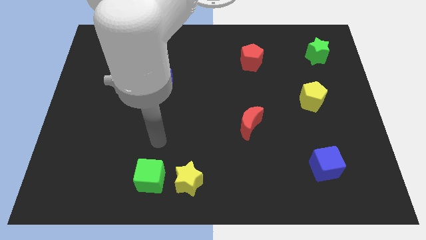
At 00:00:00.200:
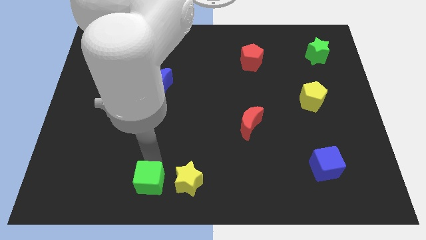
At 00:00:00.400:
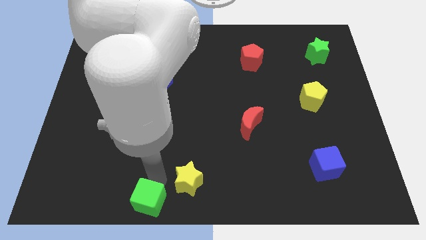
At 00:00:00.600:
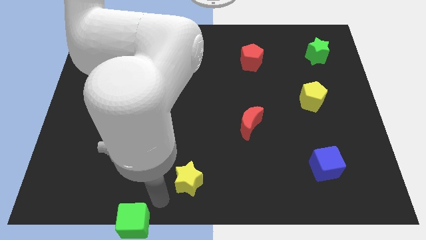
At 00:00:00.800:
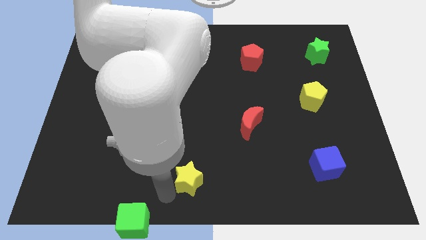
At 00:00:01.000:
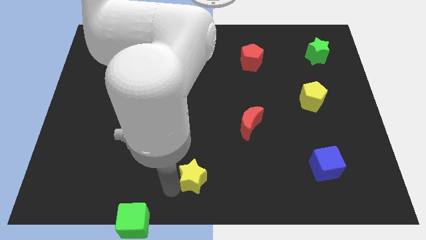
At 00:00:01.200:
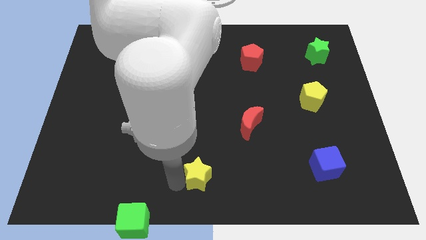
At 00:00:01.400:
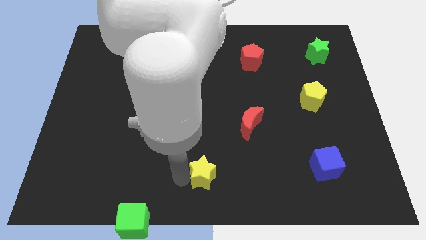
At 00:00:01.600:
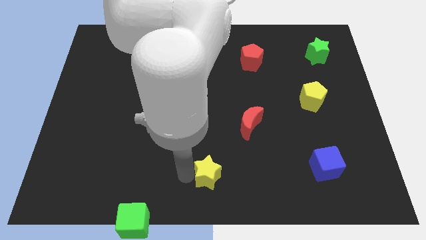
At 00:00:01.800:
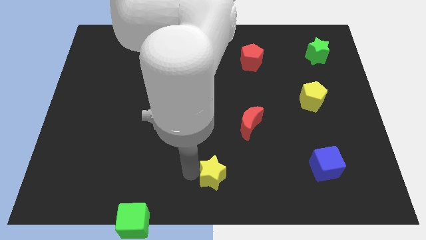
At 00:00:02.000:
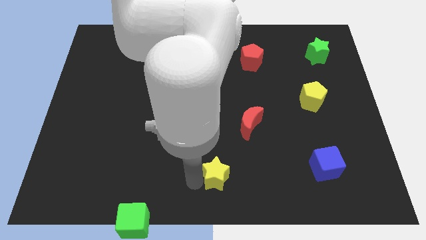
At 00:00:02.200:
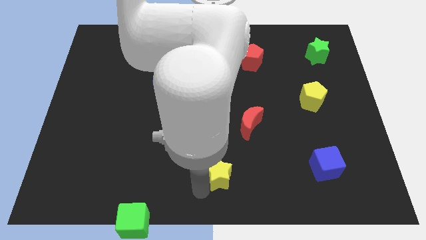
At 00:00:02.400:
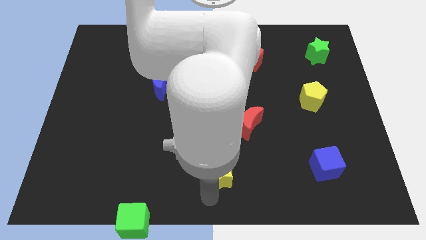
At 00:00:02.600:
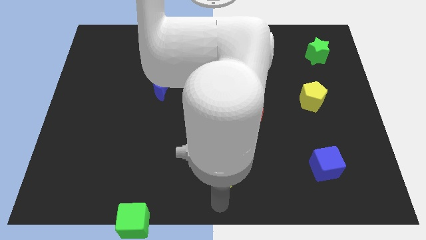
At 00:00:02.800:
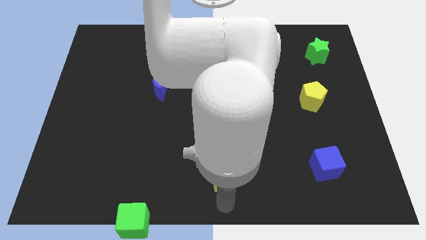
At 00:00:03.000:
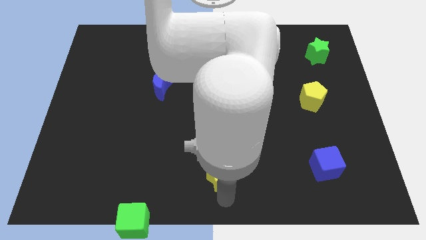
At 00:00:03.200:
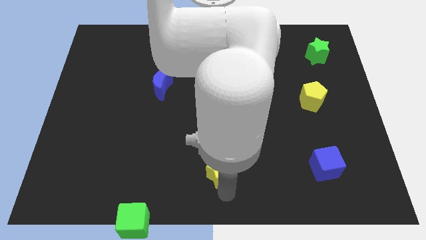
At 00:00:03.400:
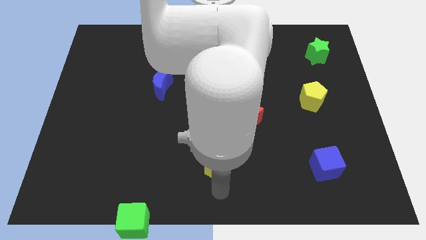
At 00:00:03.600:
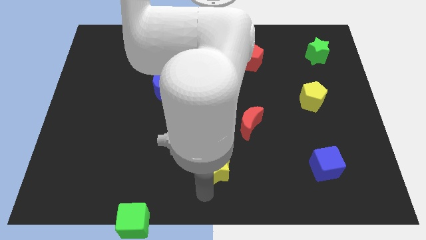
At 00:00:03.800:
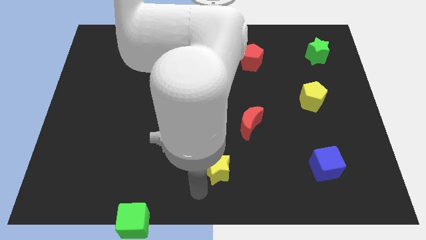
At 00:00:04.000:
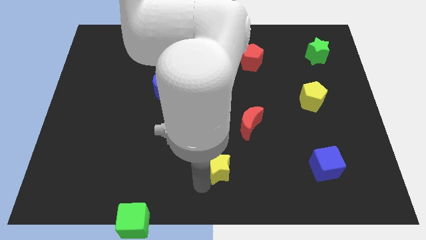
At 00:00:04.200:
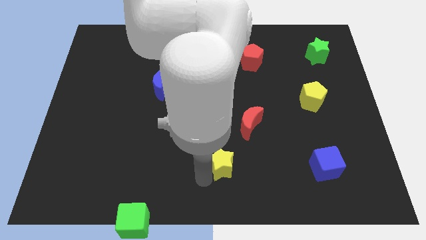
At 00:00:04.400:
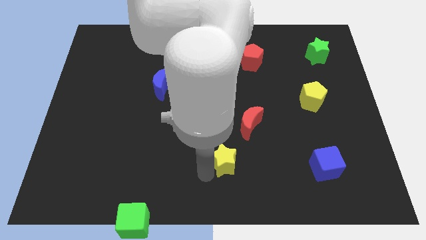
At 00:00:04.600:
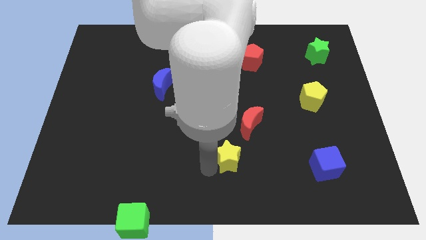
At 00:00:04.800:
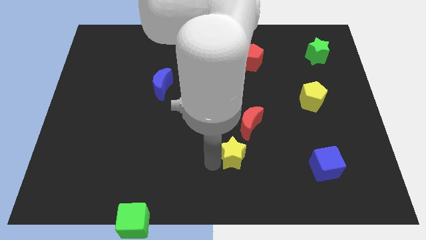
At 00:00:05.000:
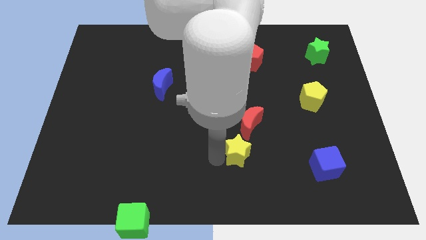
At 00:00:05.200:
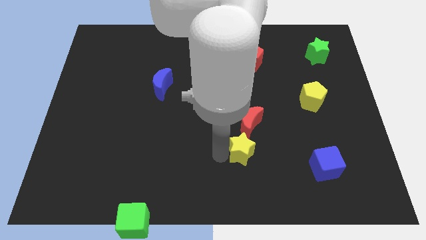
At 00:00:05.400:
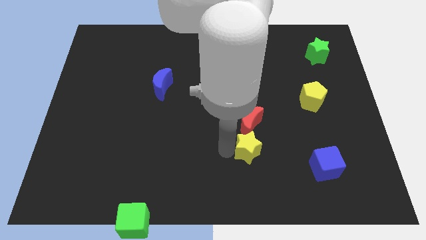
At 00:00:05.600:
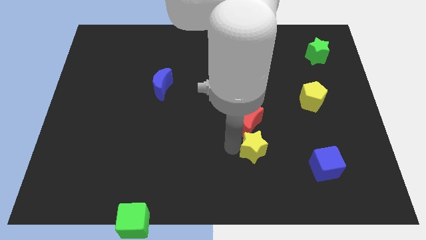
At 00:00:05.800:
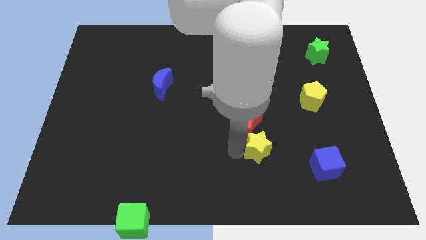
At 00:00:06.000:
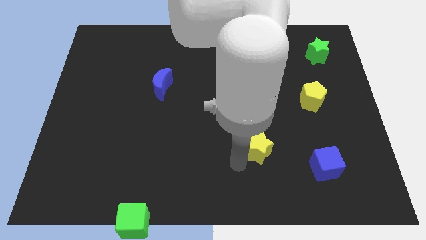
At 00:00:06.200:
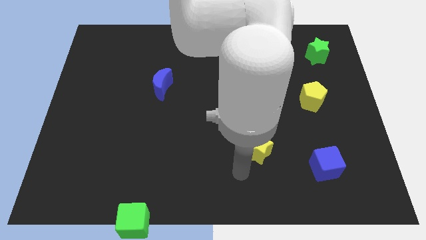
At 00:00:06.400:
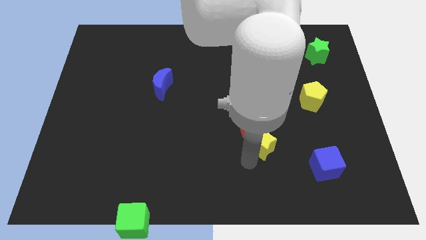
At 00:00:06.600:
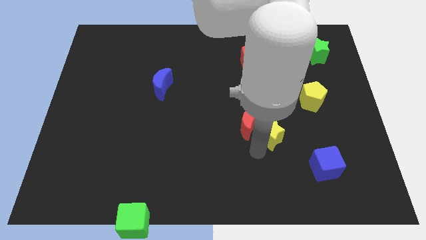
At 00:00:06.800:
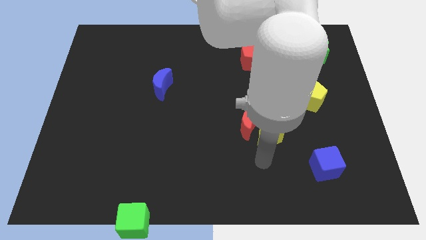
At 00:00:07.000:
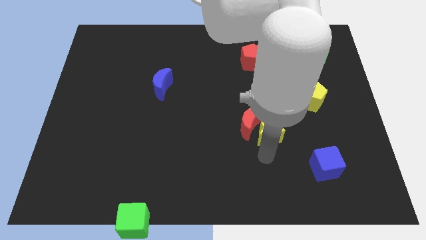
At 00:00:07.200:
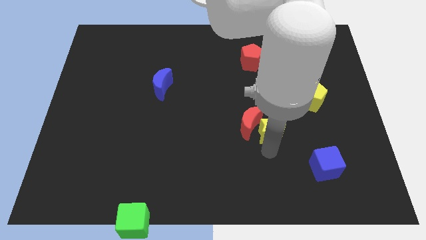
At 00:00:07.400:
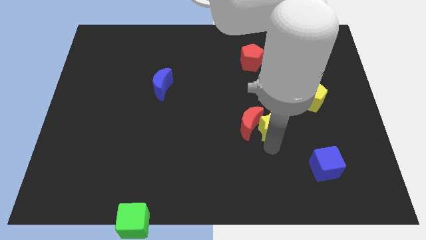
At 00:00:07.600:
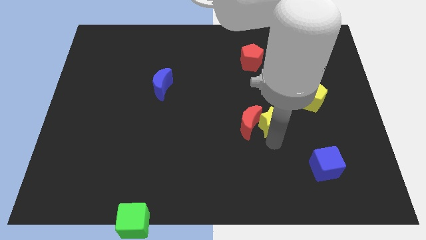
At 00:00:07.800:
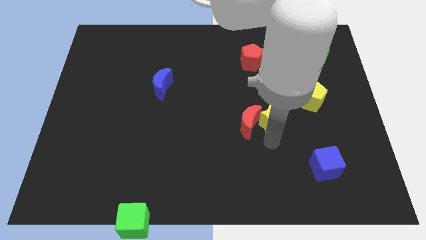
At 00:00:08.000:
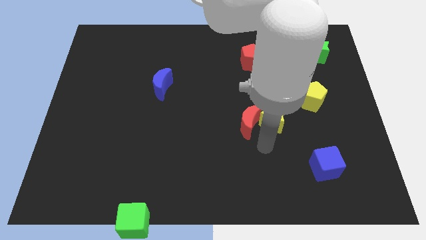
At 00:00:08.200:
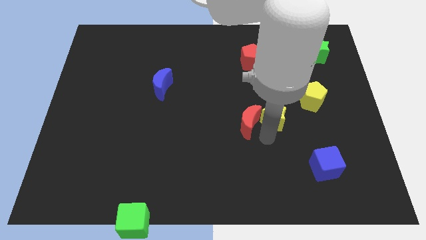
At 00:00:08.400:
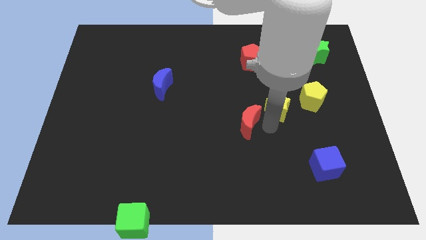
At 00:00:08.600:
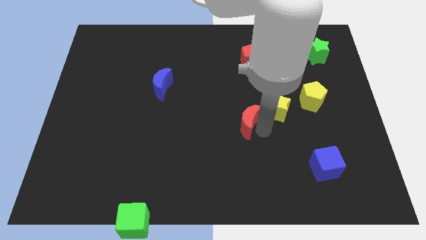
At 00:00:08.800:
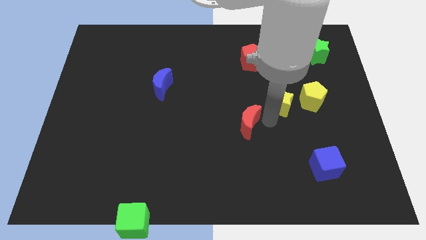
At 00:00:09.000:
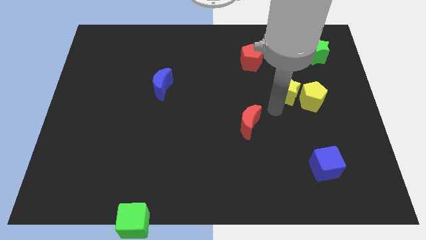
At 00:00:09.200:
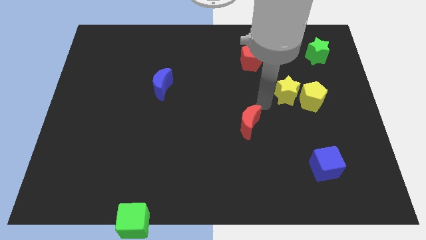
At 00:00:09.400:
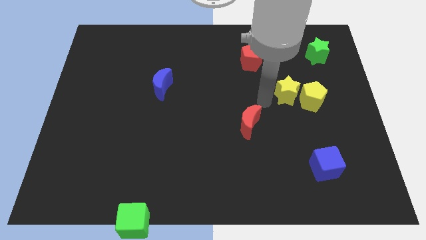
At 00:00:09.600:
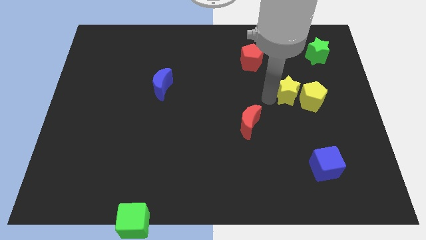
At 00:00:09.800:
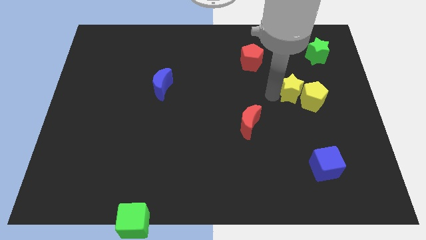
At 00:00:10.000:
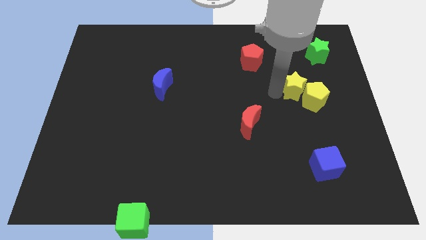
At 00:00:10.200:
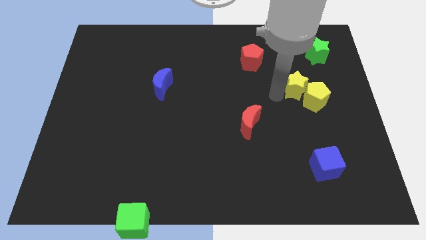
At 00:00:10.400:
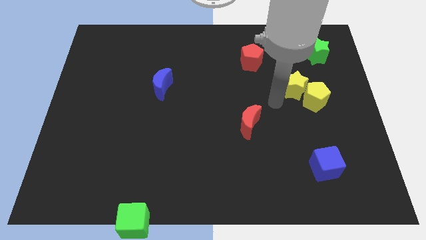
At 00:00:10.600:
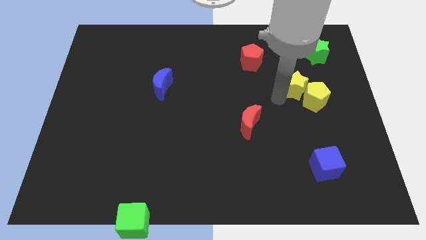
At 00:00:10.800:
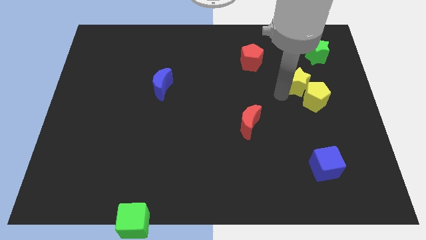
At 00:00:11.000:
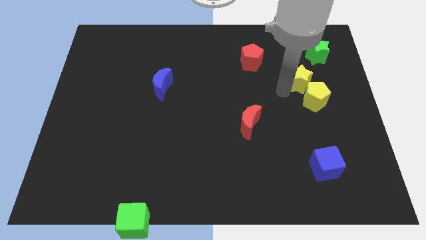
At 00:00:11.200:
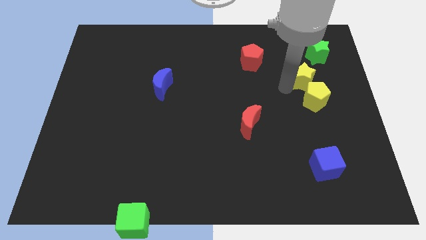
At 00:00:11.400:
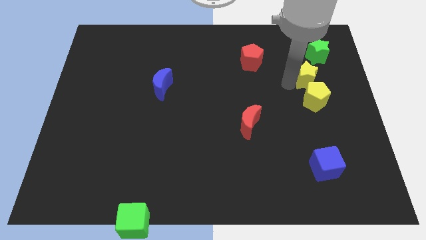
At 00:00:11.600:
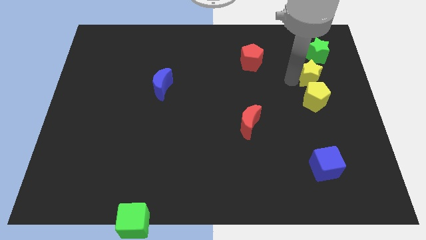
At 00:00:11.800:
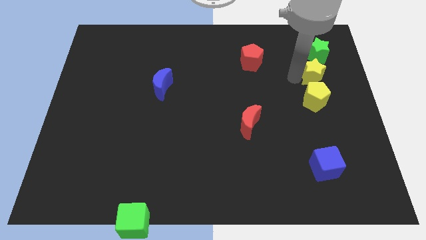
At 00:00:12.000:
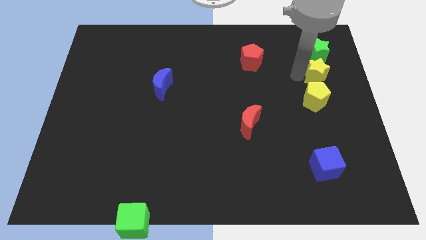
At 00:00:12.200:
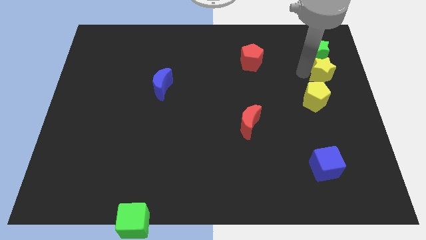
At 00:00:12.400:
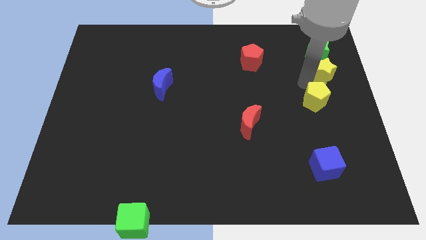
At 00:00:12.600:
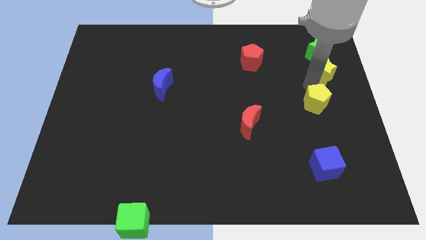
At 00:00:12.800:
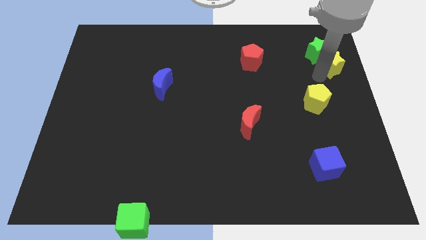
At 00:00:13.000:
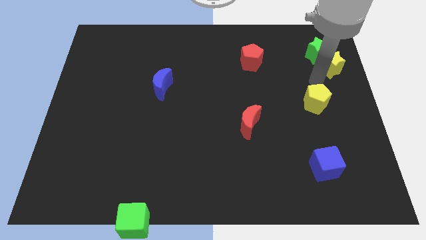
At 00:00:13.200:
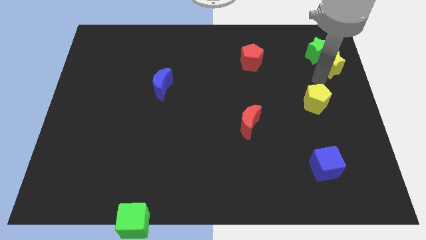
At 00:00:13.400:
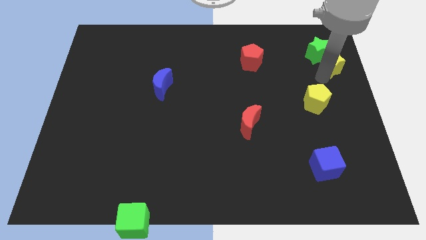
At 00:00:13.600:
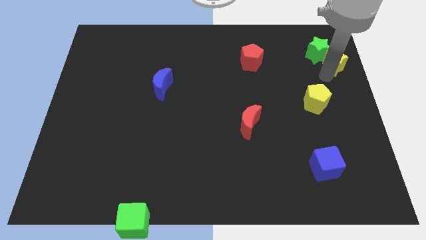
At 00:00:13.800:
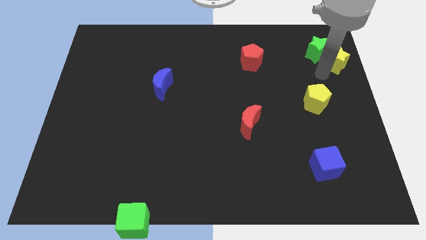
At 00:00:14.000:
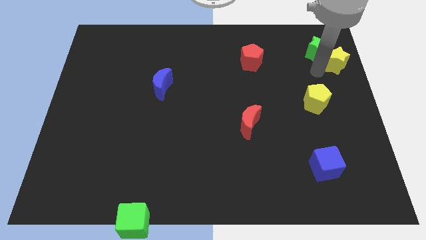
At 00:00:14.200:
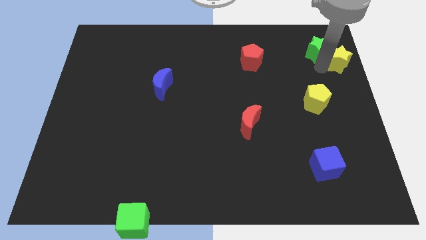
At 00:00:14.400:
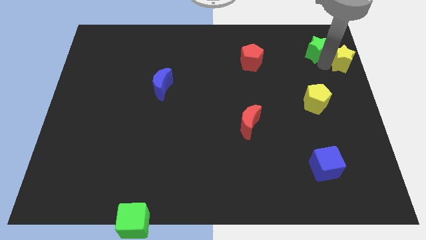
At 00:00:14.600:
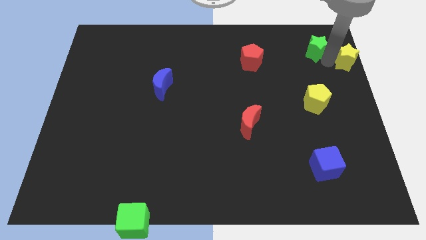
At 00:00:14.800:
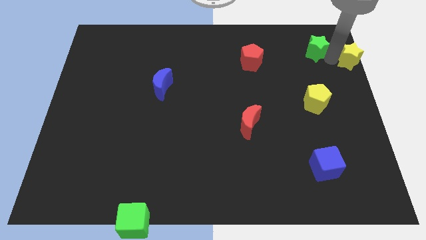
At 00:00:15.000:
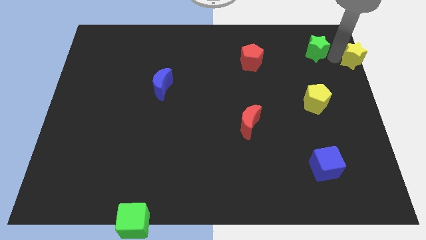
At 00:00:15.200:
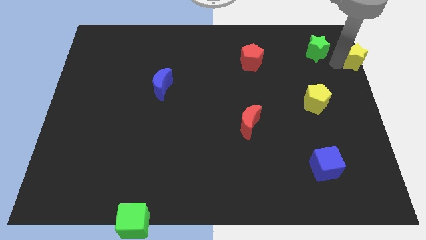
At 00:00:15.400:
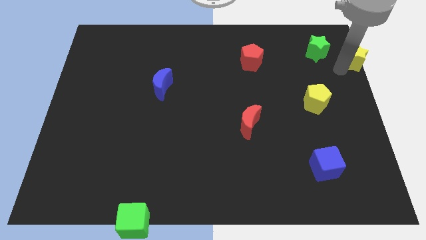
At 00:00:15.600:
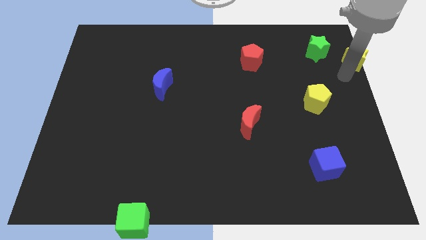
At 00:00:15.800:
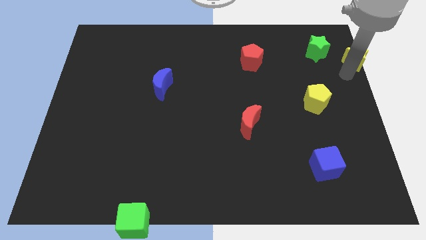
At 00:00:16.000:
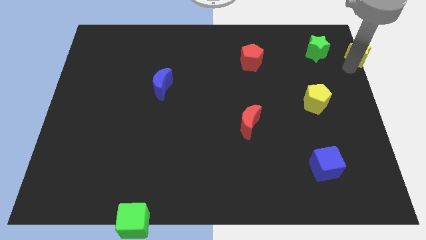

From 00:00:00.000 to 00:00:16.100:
slide the yellow star to the upper right corner
